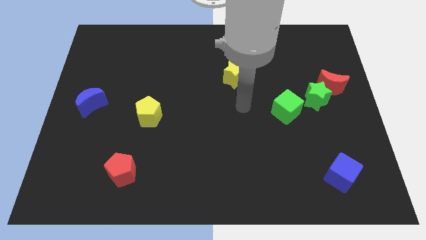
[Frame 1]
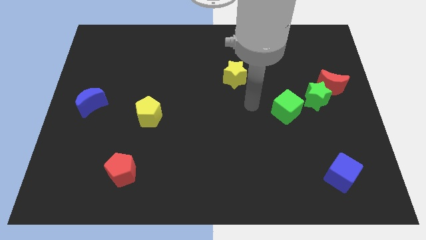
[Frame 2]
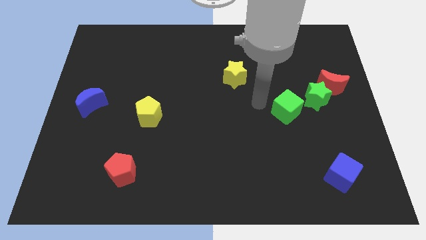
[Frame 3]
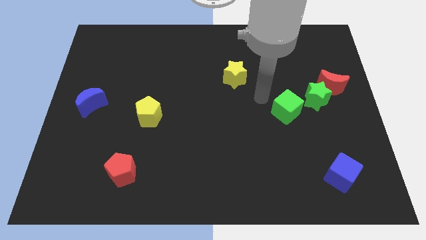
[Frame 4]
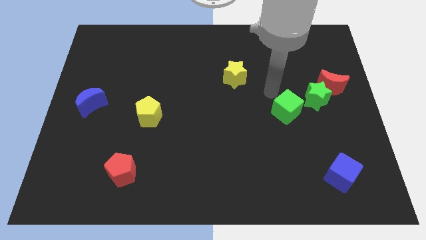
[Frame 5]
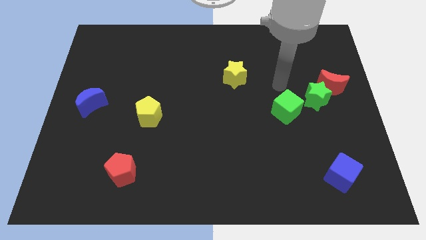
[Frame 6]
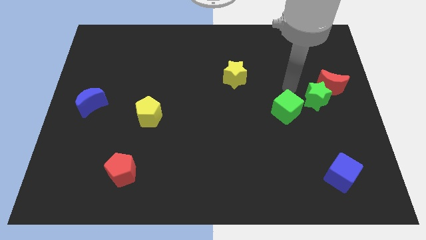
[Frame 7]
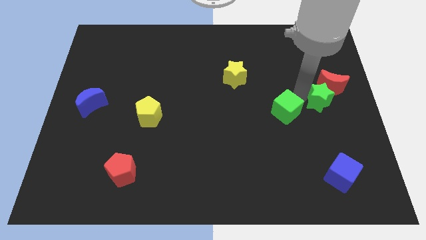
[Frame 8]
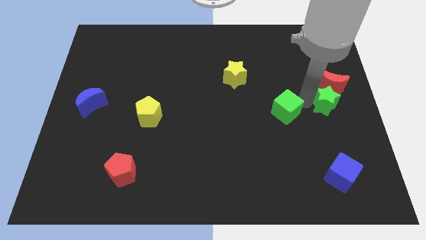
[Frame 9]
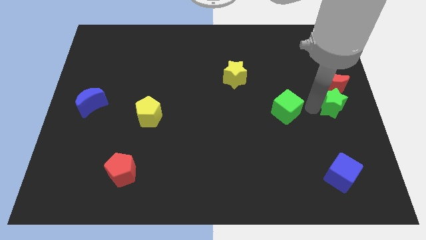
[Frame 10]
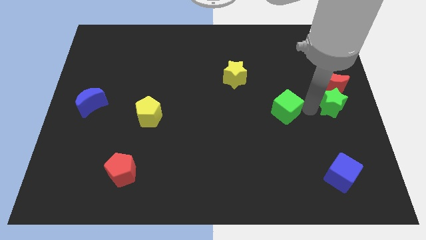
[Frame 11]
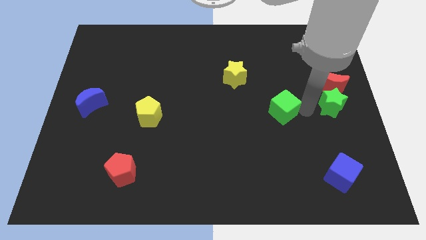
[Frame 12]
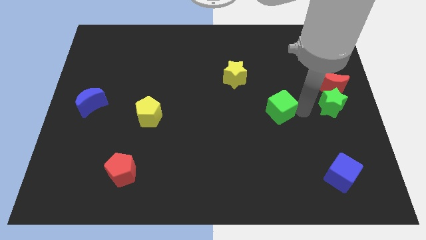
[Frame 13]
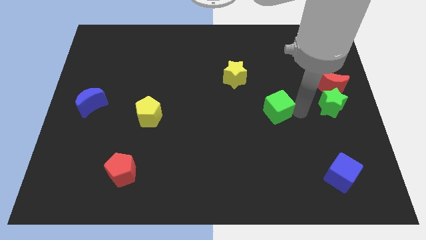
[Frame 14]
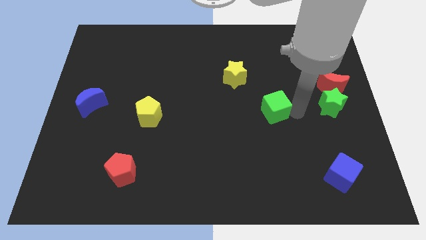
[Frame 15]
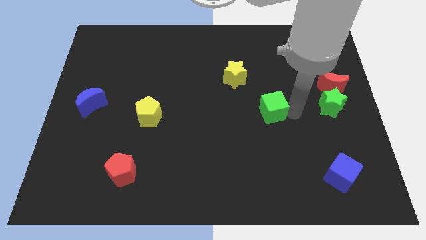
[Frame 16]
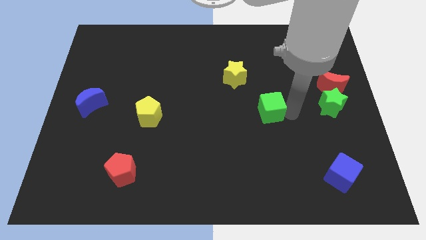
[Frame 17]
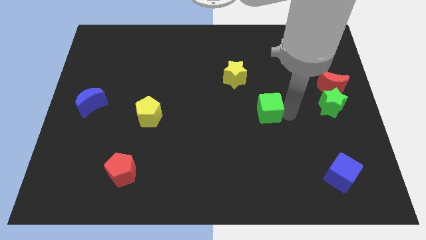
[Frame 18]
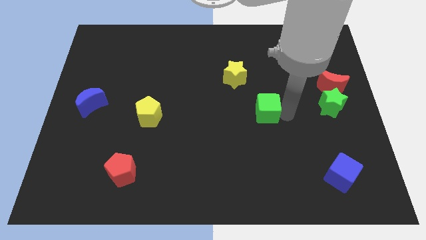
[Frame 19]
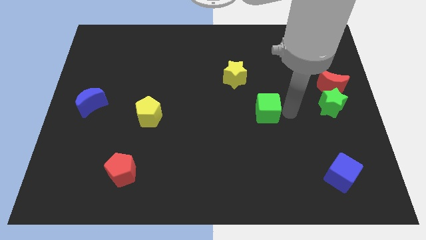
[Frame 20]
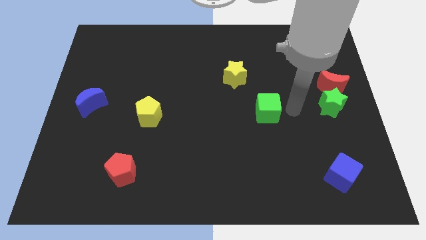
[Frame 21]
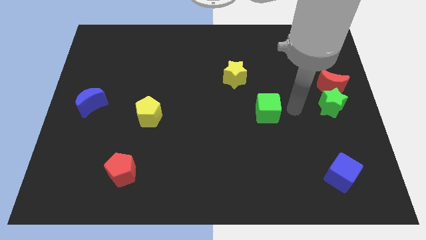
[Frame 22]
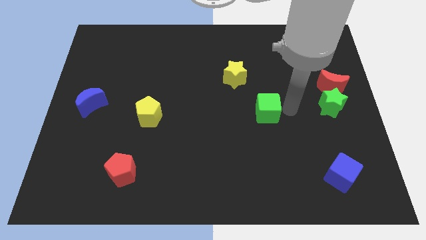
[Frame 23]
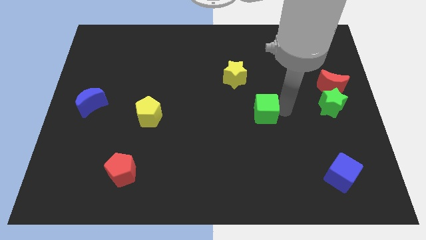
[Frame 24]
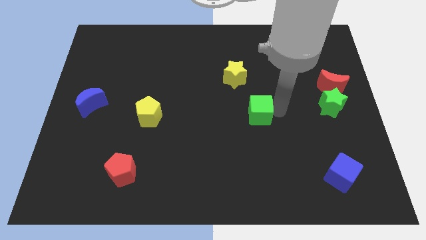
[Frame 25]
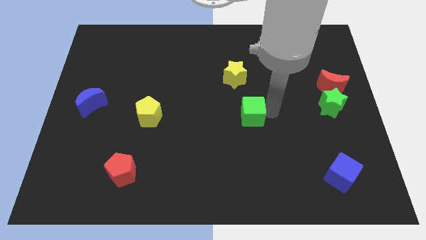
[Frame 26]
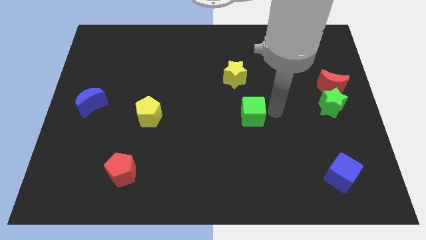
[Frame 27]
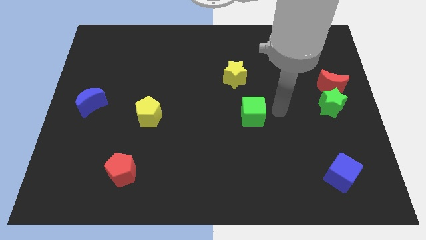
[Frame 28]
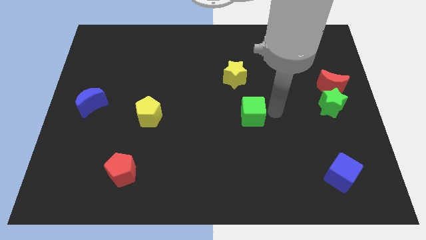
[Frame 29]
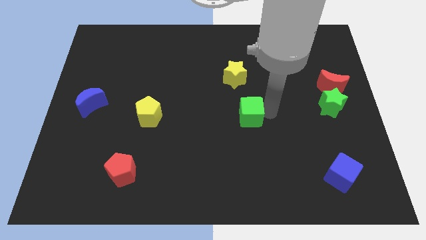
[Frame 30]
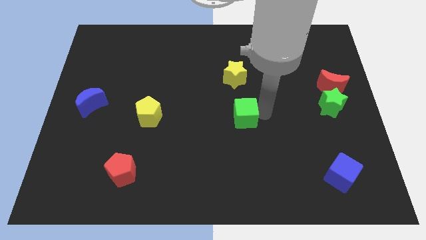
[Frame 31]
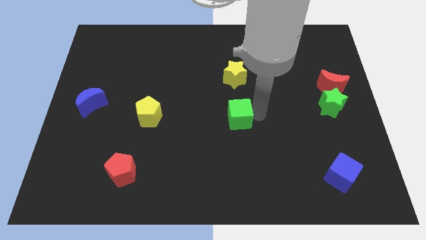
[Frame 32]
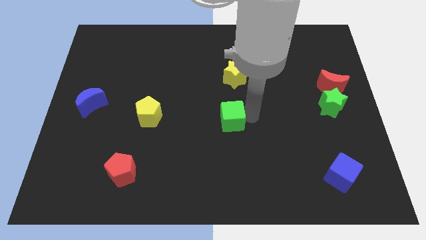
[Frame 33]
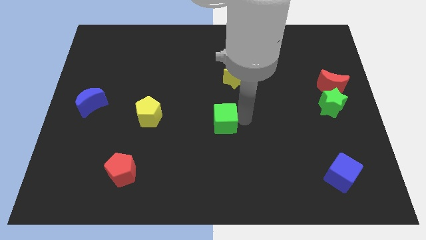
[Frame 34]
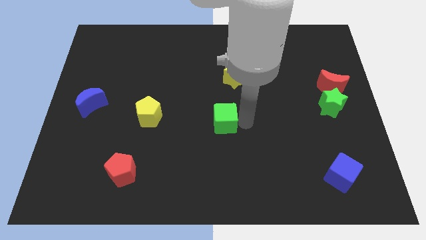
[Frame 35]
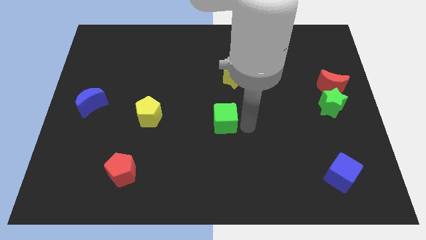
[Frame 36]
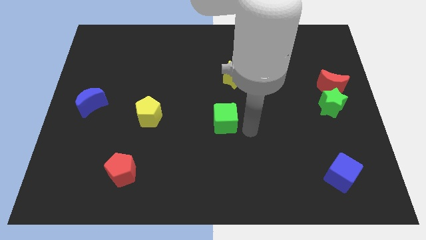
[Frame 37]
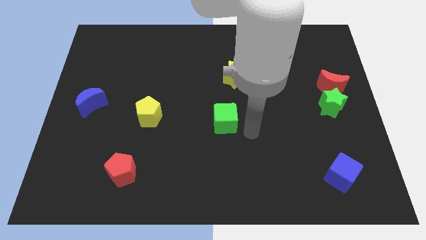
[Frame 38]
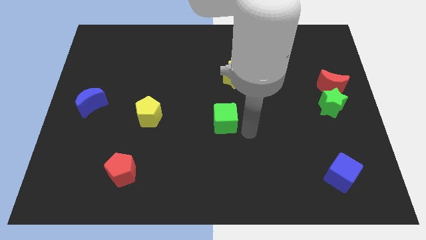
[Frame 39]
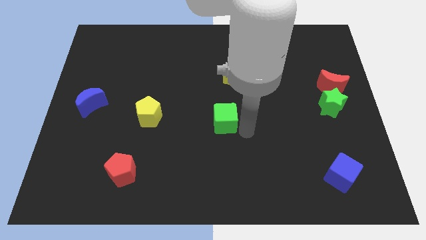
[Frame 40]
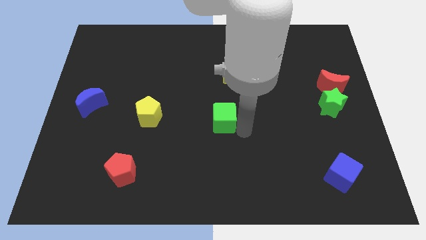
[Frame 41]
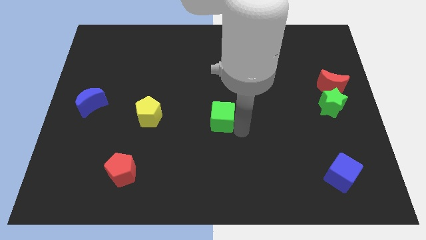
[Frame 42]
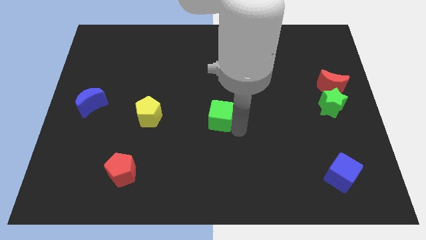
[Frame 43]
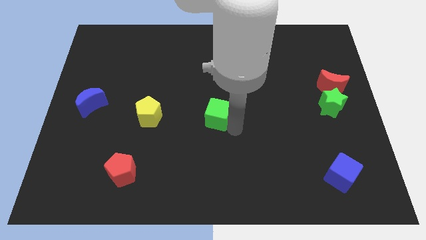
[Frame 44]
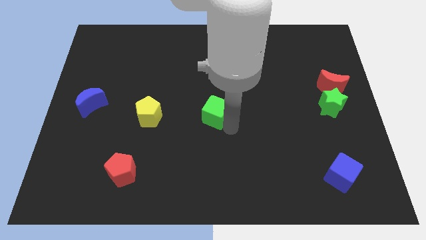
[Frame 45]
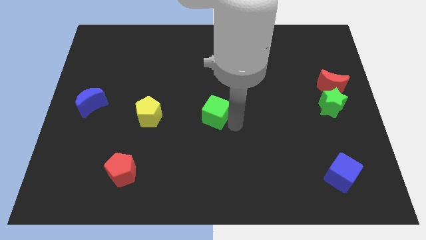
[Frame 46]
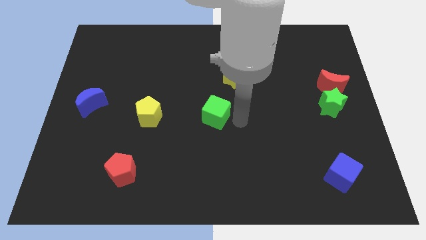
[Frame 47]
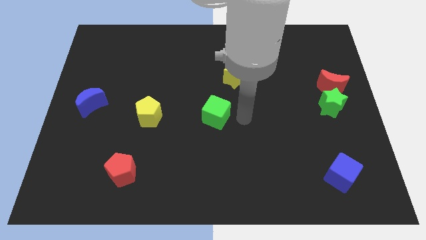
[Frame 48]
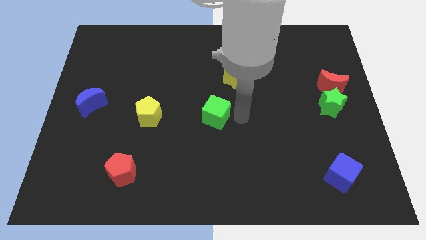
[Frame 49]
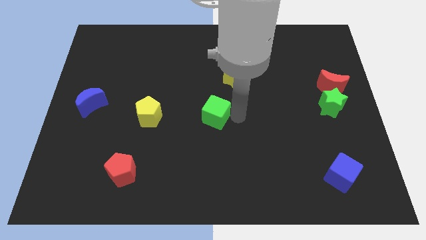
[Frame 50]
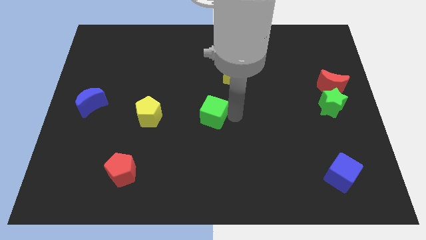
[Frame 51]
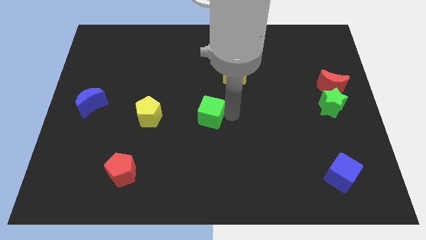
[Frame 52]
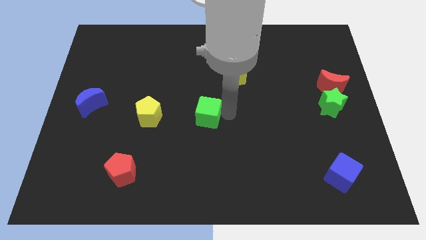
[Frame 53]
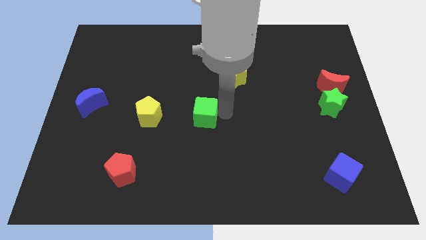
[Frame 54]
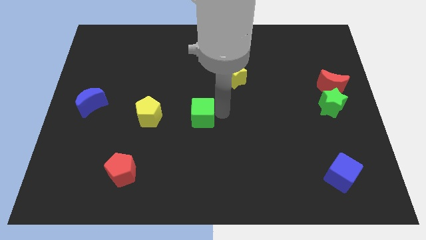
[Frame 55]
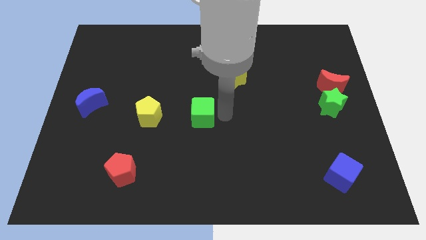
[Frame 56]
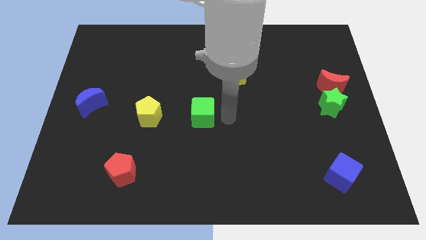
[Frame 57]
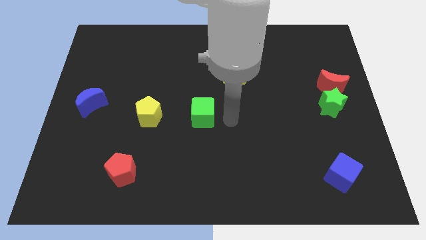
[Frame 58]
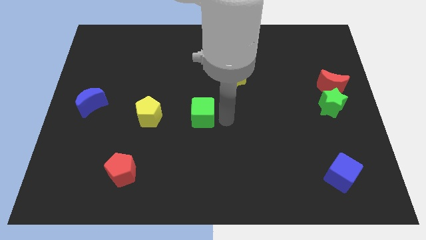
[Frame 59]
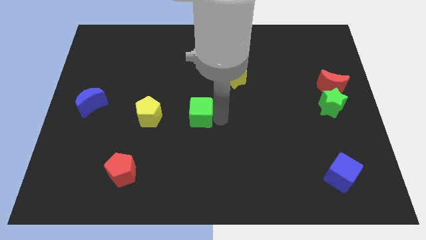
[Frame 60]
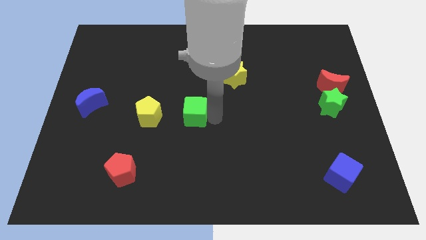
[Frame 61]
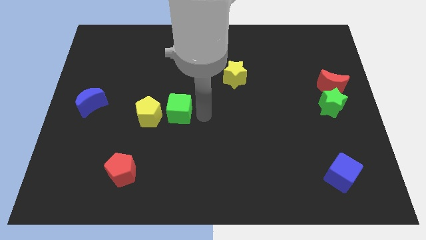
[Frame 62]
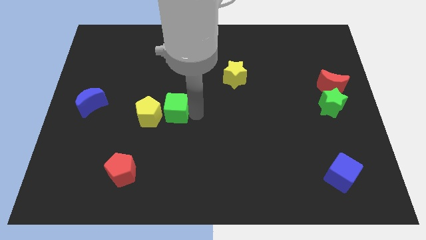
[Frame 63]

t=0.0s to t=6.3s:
move the green cube close to the yellow pentagon

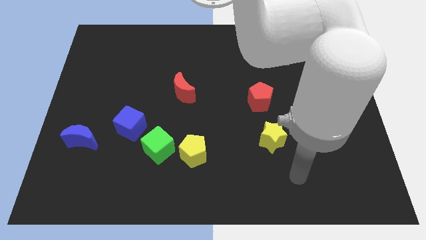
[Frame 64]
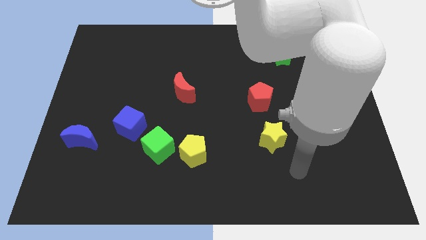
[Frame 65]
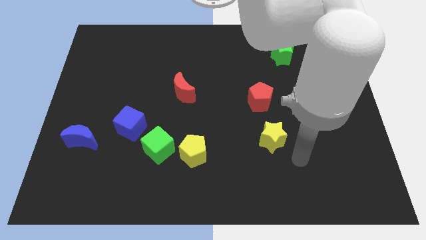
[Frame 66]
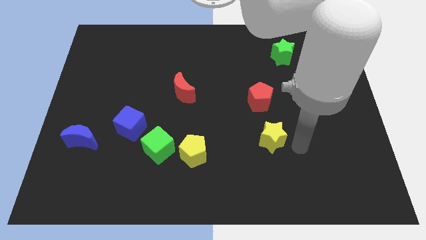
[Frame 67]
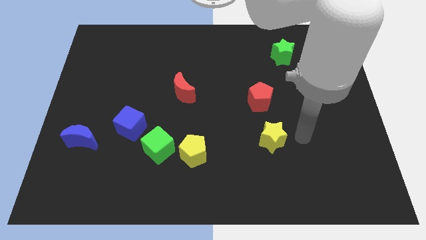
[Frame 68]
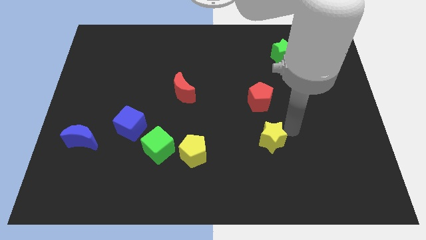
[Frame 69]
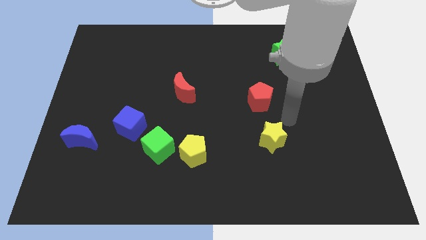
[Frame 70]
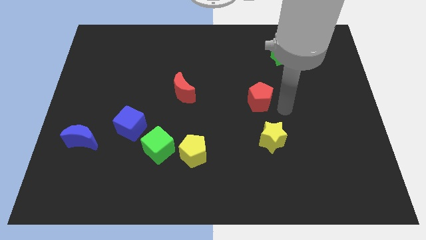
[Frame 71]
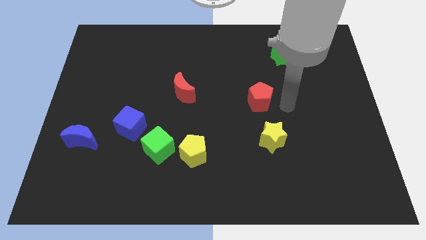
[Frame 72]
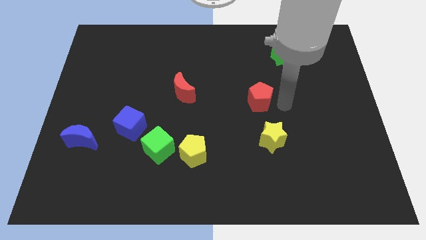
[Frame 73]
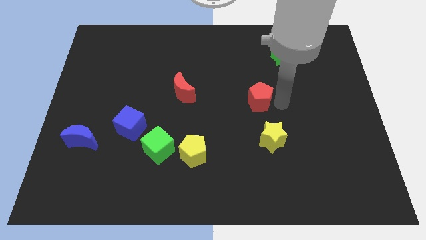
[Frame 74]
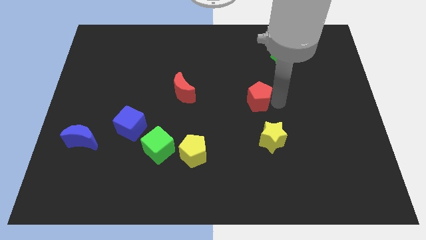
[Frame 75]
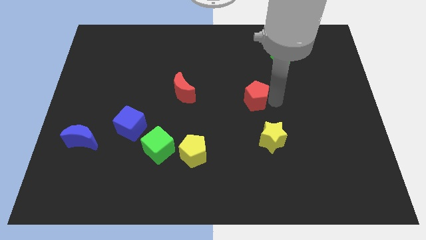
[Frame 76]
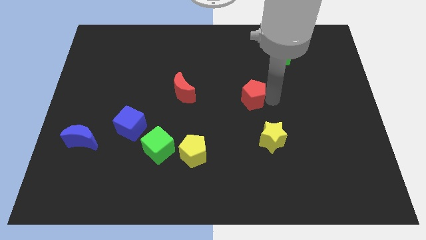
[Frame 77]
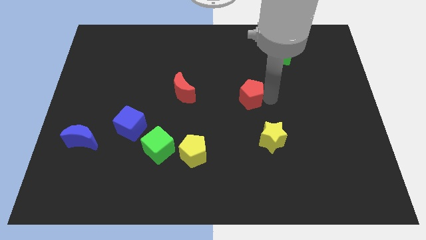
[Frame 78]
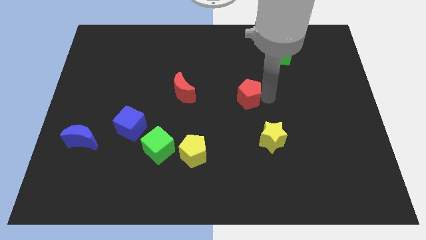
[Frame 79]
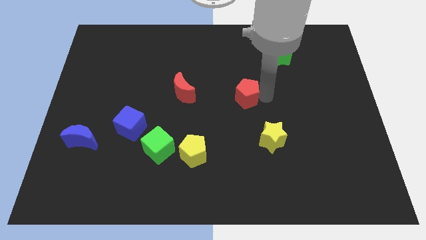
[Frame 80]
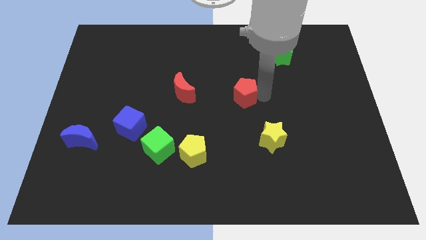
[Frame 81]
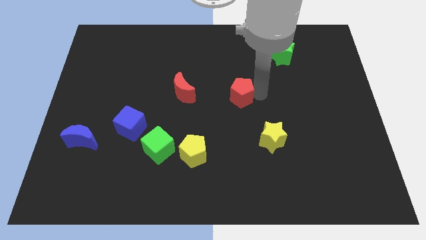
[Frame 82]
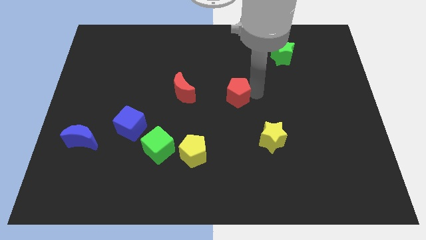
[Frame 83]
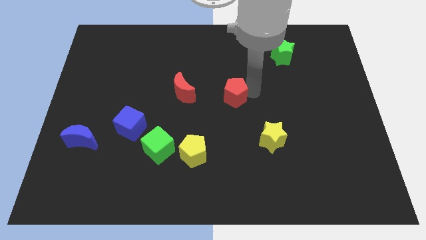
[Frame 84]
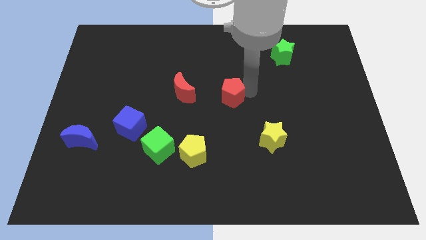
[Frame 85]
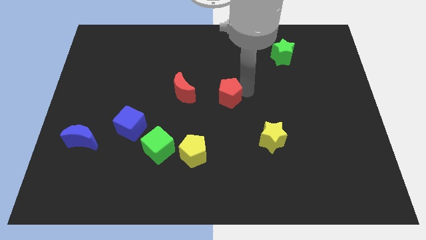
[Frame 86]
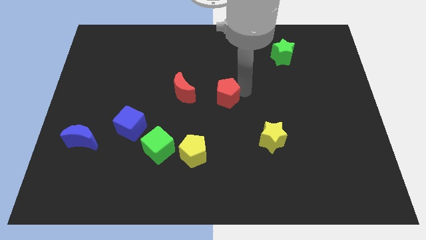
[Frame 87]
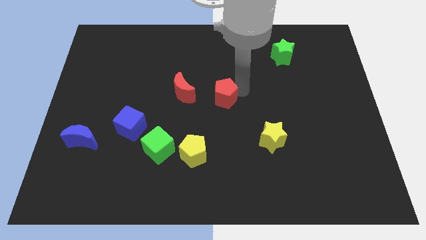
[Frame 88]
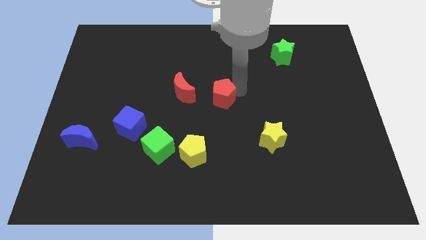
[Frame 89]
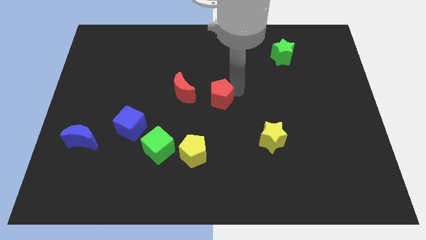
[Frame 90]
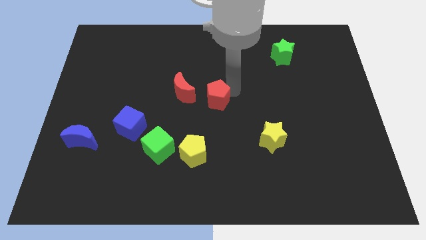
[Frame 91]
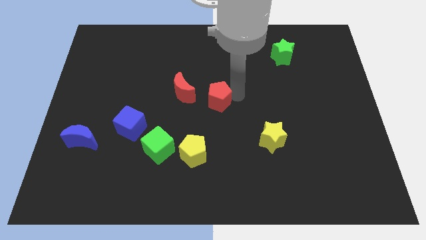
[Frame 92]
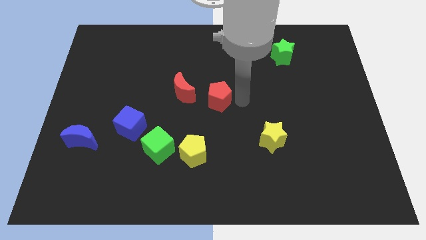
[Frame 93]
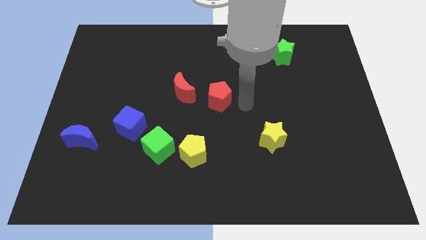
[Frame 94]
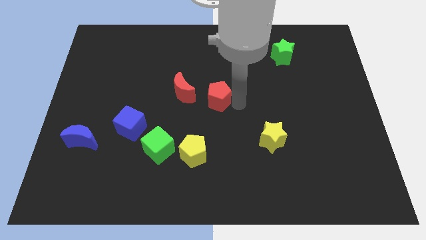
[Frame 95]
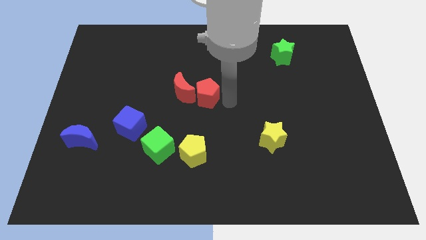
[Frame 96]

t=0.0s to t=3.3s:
put the red pentagon close to the red moon
